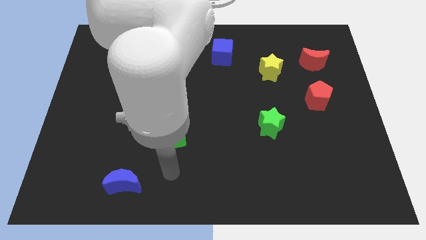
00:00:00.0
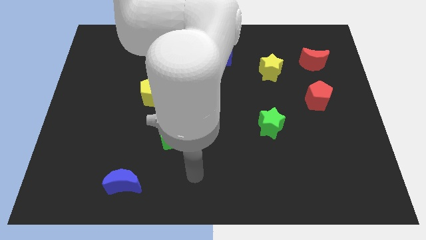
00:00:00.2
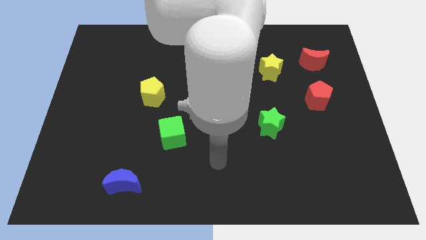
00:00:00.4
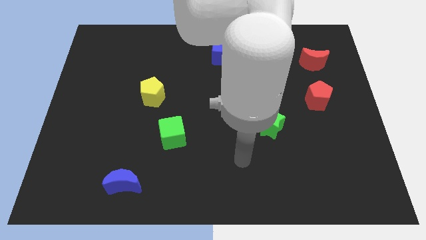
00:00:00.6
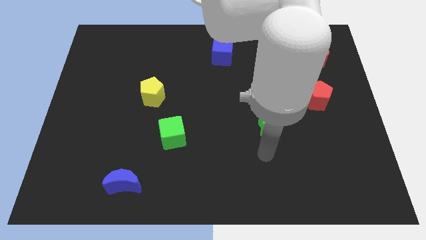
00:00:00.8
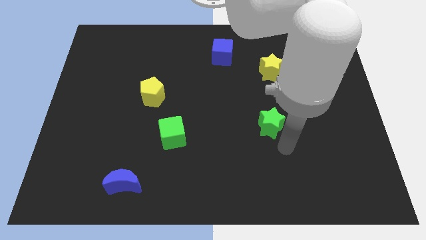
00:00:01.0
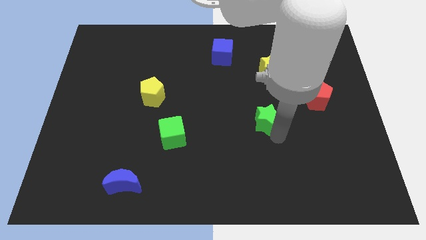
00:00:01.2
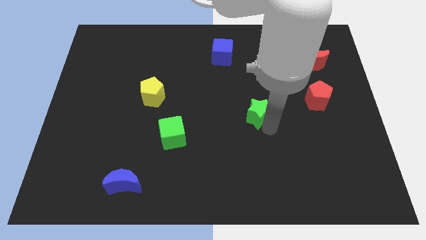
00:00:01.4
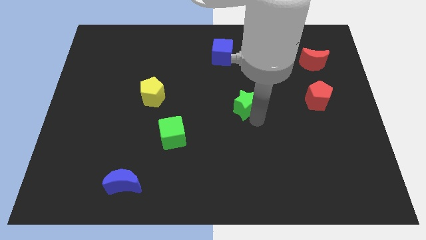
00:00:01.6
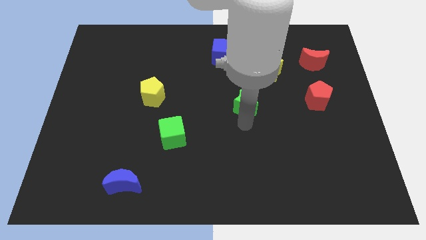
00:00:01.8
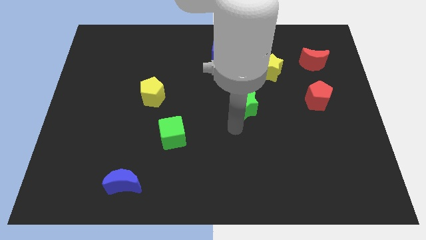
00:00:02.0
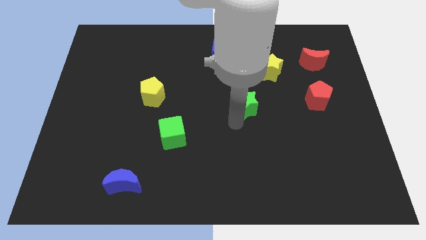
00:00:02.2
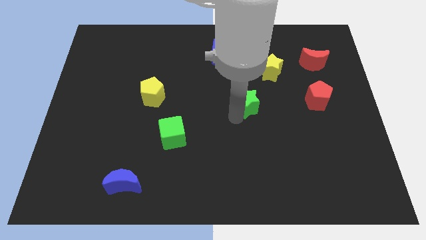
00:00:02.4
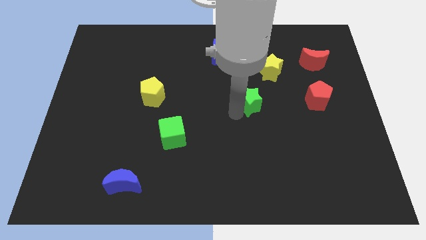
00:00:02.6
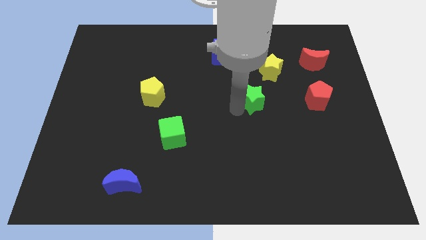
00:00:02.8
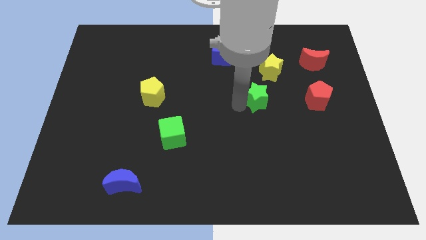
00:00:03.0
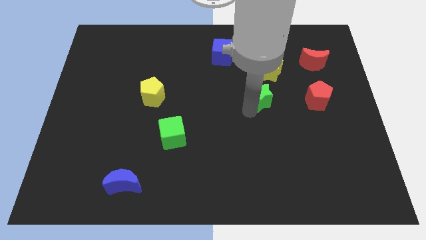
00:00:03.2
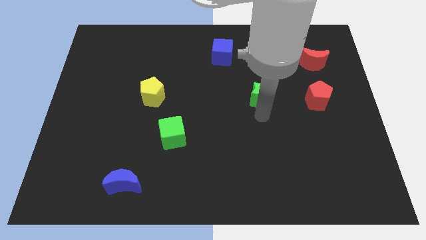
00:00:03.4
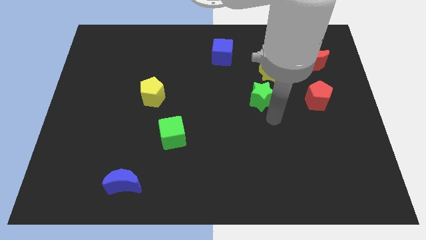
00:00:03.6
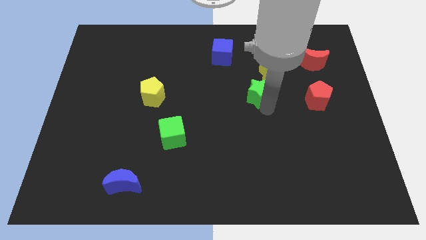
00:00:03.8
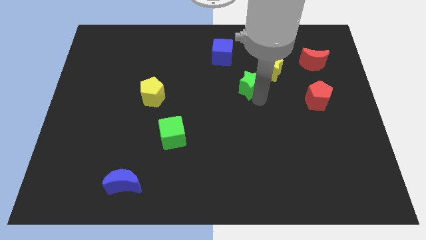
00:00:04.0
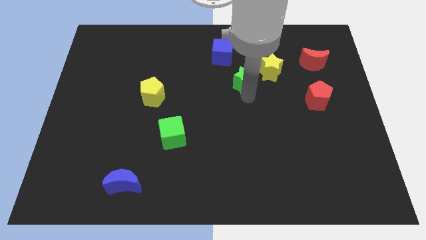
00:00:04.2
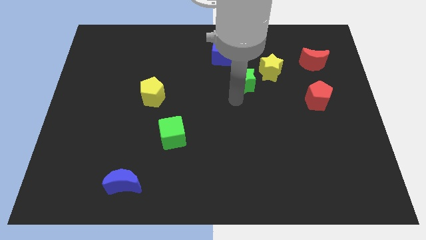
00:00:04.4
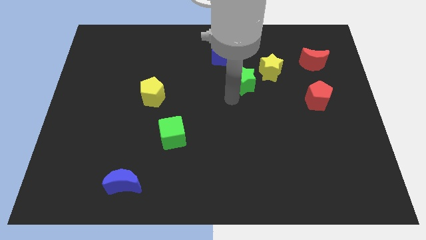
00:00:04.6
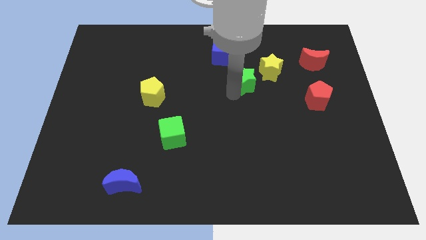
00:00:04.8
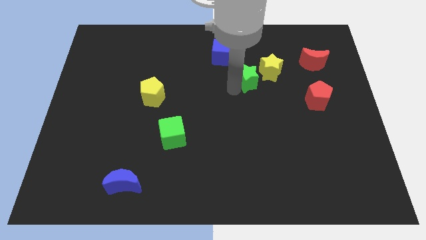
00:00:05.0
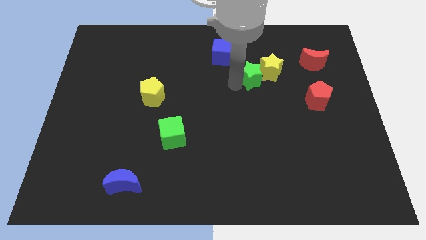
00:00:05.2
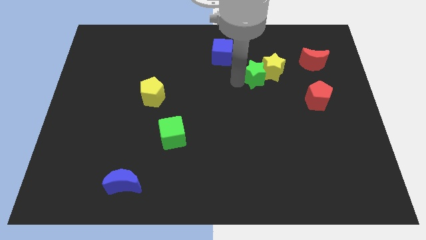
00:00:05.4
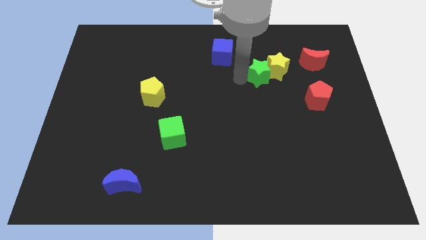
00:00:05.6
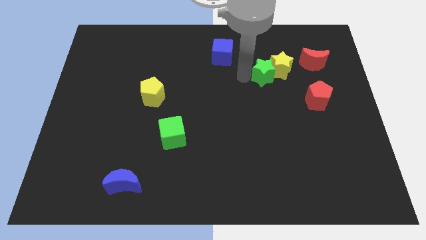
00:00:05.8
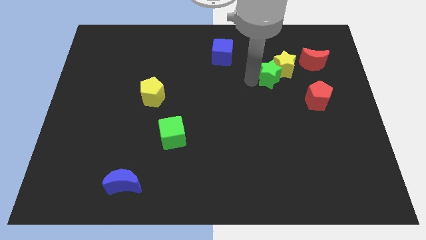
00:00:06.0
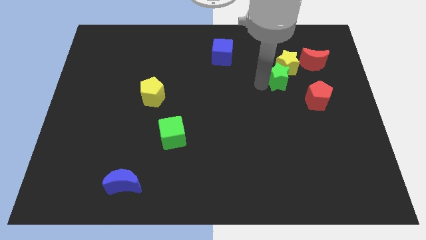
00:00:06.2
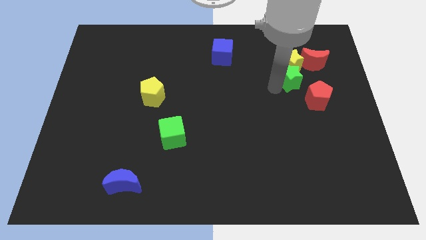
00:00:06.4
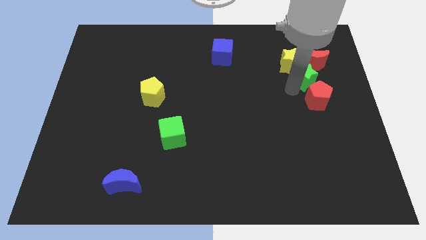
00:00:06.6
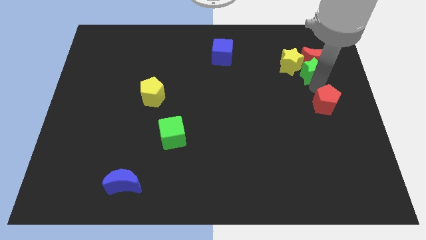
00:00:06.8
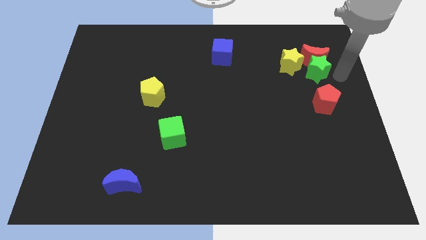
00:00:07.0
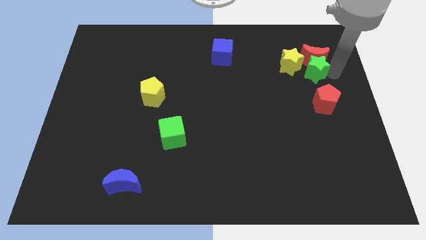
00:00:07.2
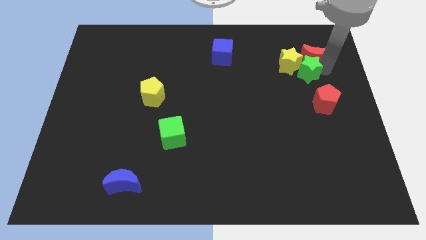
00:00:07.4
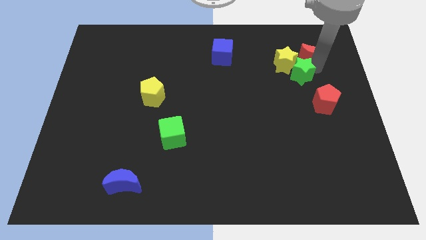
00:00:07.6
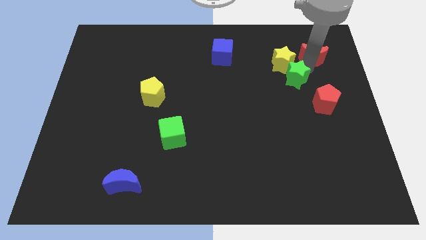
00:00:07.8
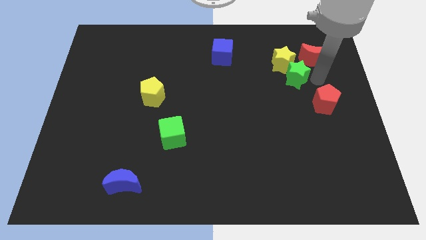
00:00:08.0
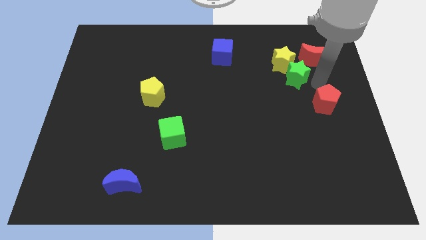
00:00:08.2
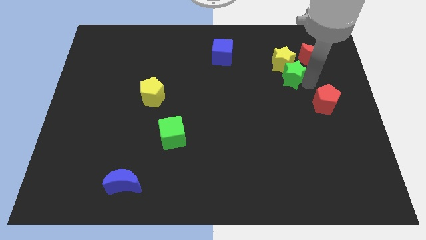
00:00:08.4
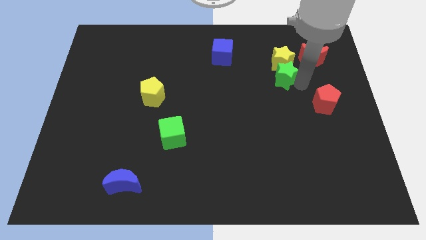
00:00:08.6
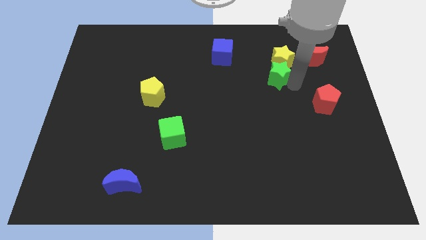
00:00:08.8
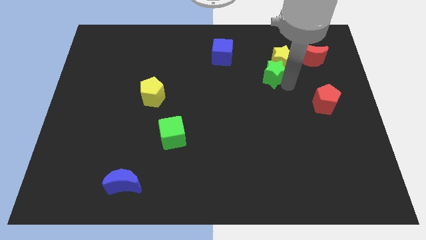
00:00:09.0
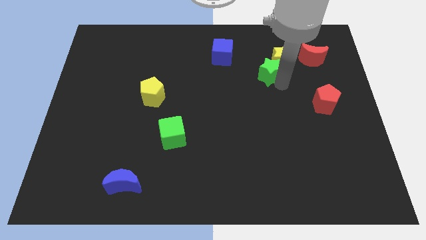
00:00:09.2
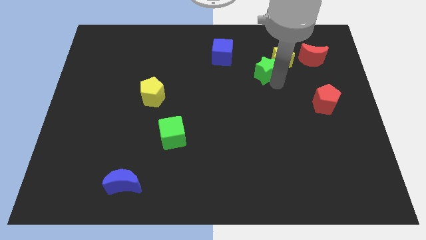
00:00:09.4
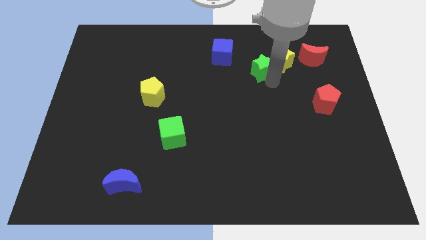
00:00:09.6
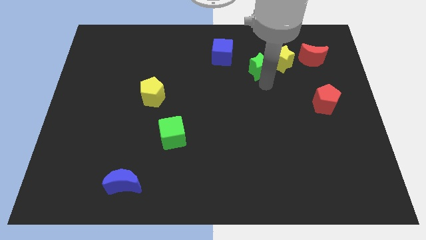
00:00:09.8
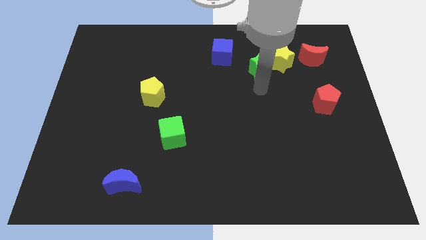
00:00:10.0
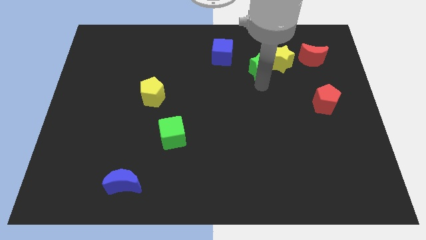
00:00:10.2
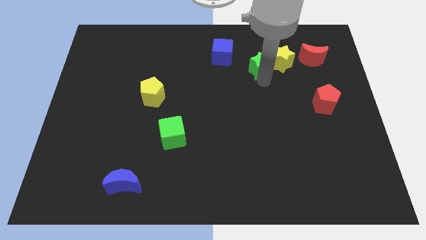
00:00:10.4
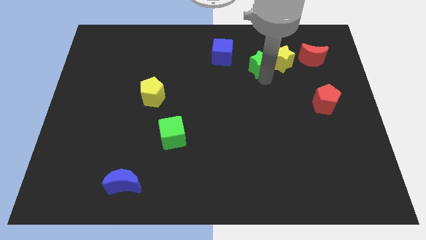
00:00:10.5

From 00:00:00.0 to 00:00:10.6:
slide the green star to the right side of the blue cube

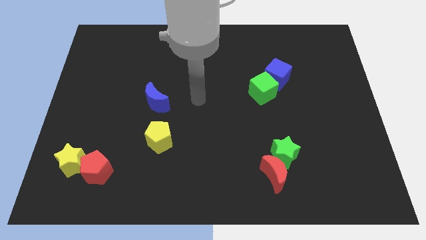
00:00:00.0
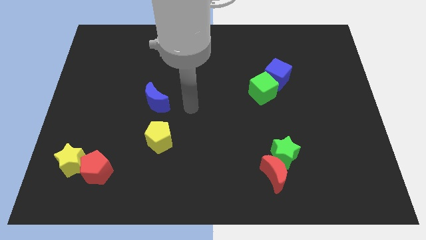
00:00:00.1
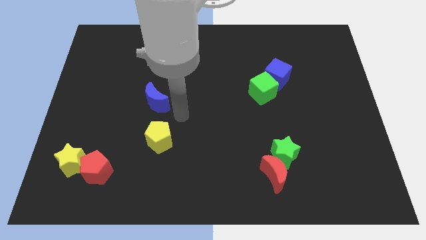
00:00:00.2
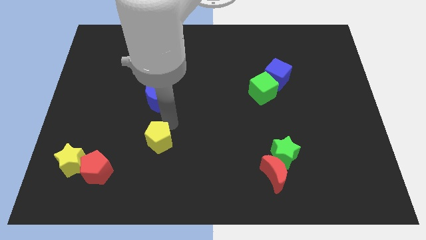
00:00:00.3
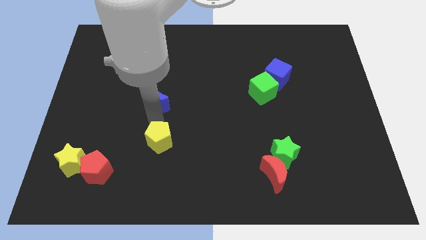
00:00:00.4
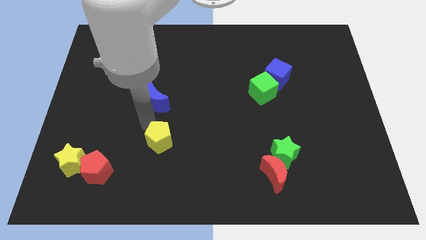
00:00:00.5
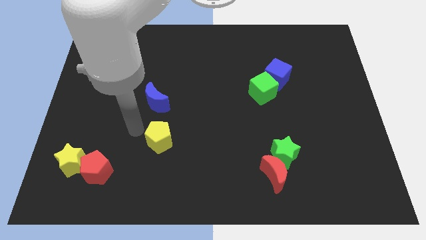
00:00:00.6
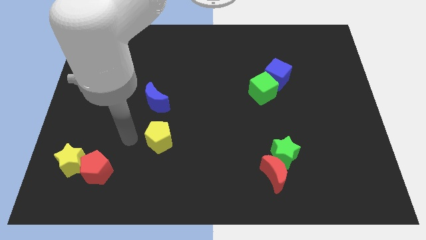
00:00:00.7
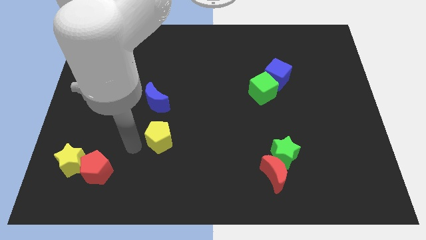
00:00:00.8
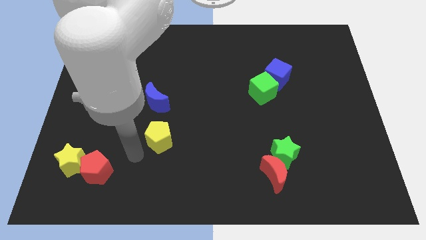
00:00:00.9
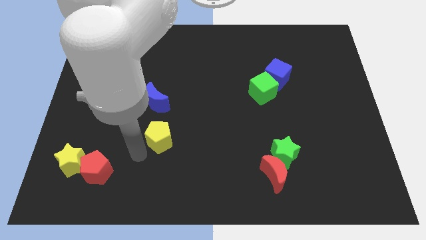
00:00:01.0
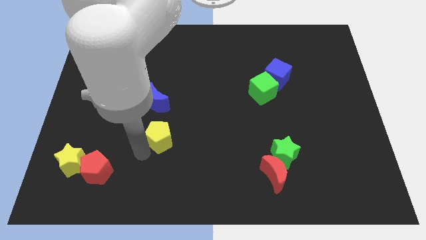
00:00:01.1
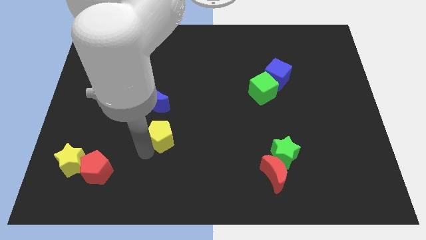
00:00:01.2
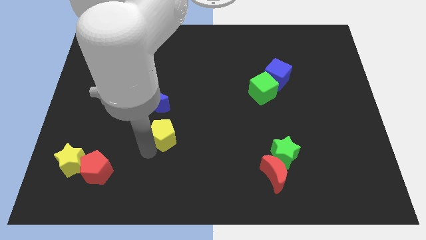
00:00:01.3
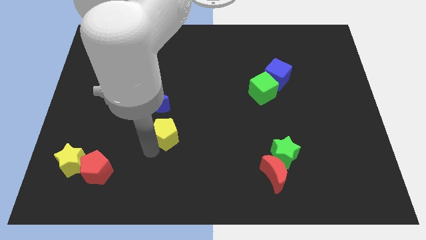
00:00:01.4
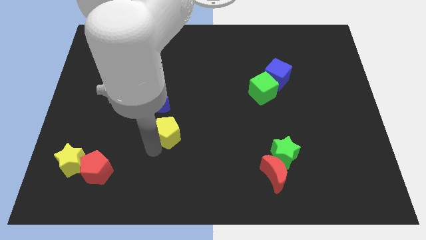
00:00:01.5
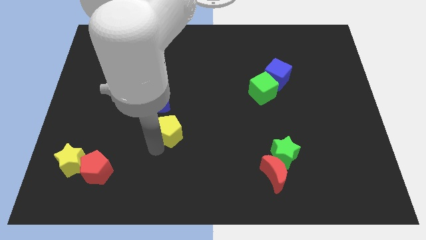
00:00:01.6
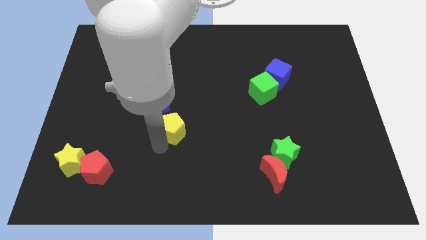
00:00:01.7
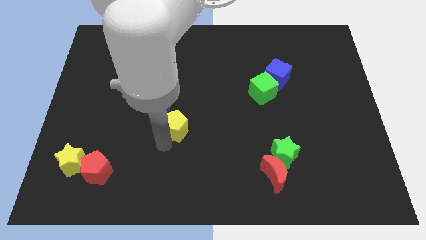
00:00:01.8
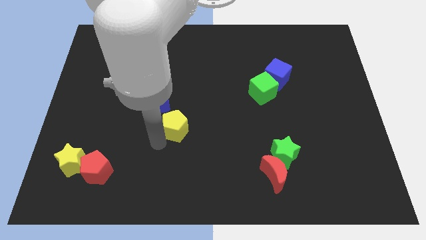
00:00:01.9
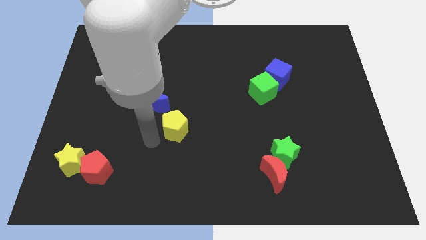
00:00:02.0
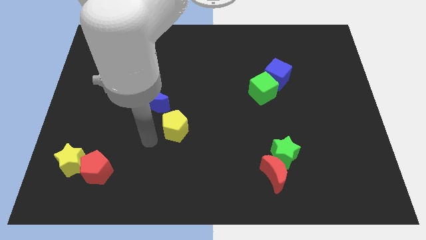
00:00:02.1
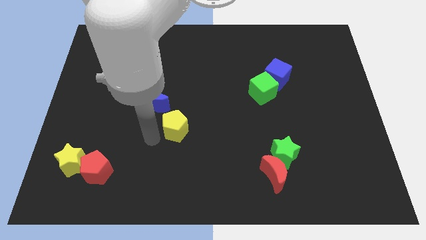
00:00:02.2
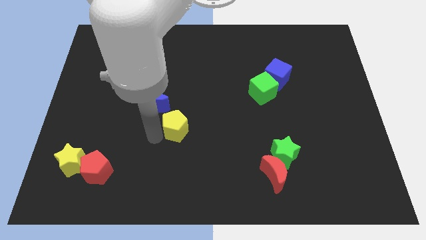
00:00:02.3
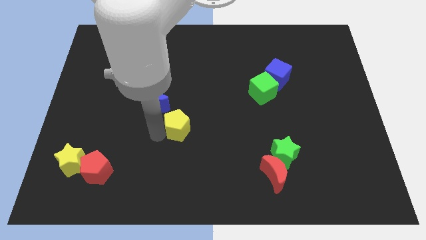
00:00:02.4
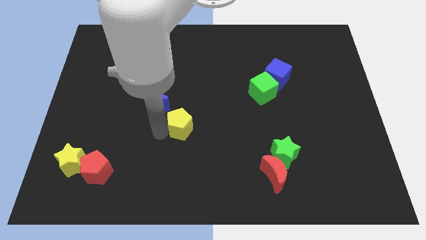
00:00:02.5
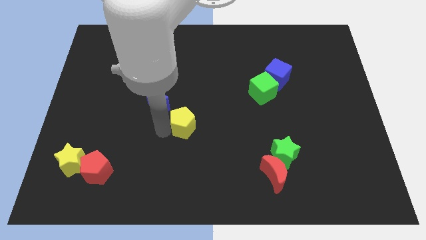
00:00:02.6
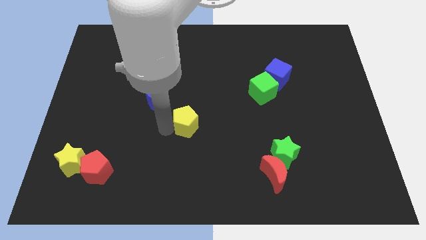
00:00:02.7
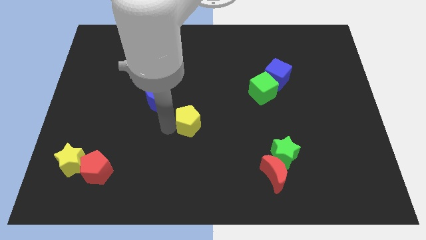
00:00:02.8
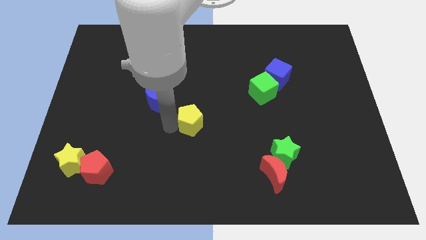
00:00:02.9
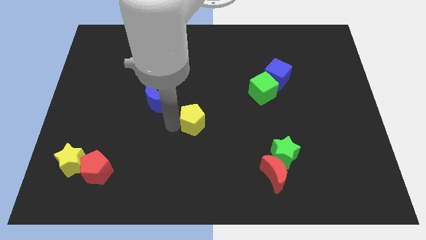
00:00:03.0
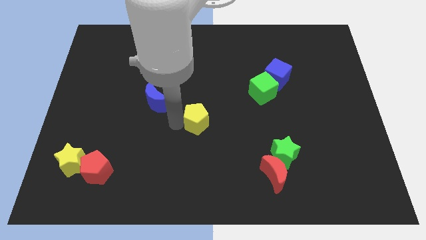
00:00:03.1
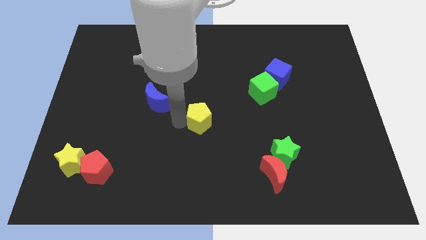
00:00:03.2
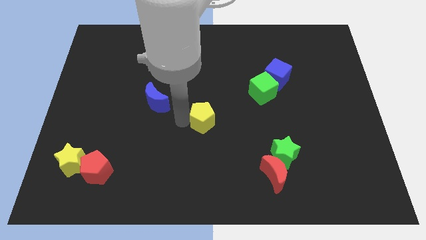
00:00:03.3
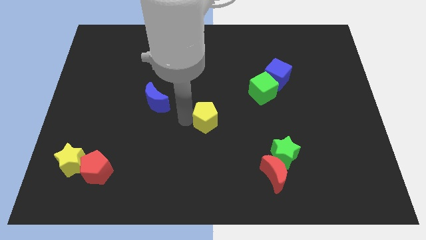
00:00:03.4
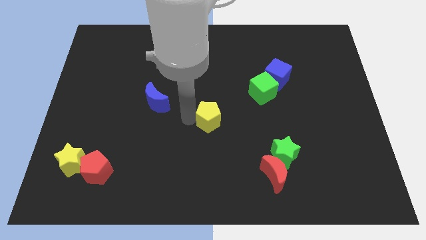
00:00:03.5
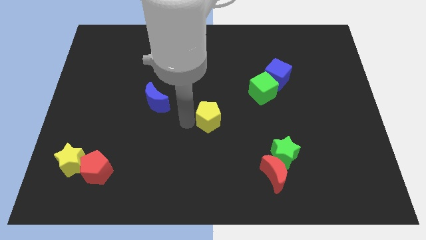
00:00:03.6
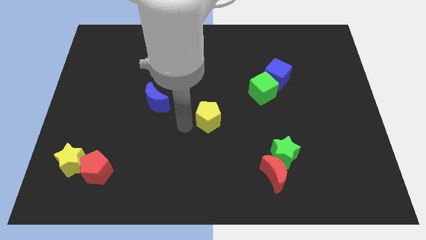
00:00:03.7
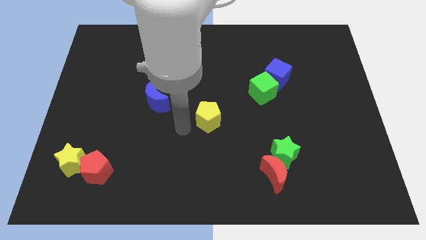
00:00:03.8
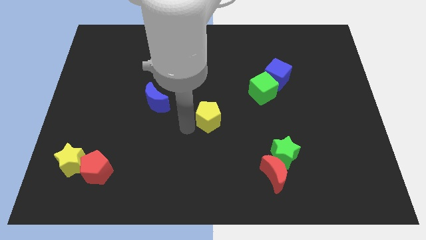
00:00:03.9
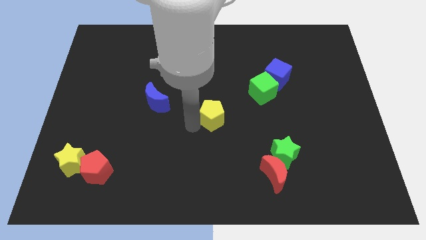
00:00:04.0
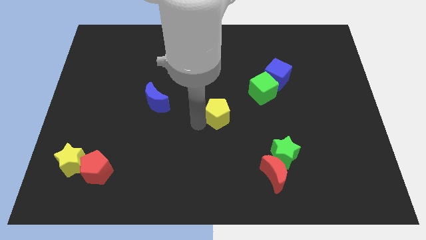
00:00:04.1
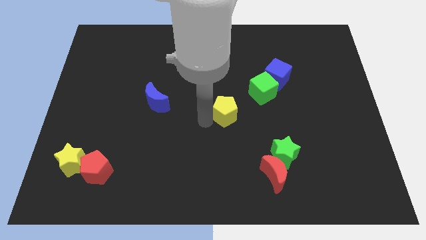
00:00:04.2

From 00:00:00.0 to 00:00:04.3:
put the yellow pentagon to the bottom left side of the green cube
